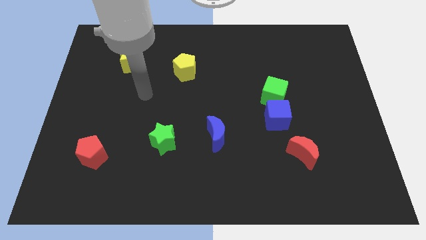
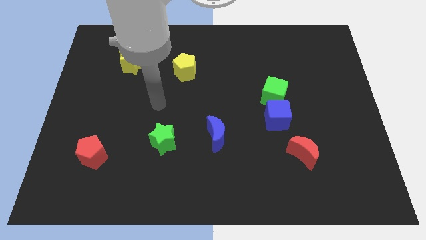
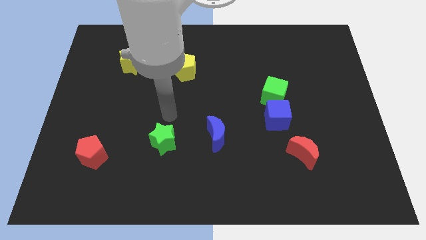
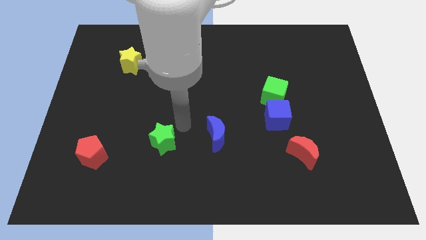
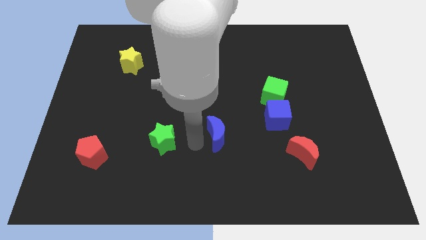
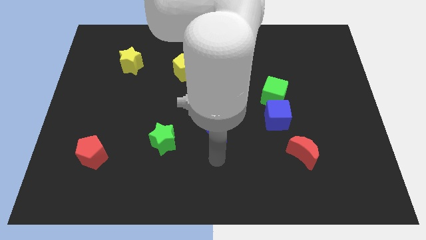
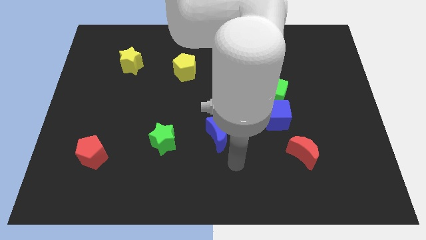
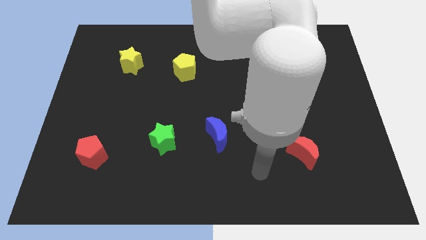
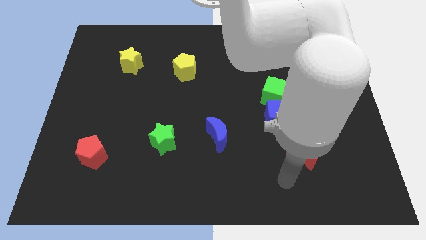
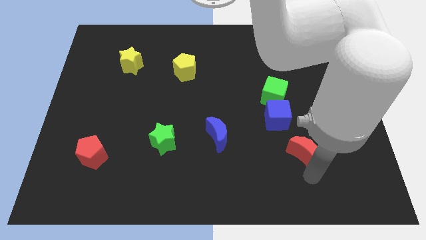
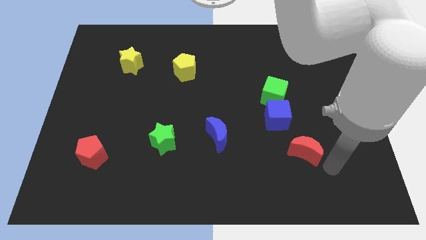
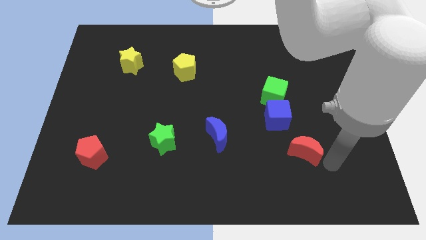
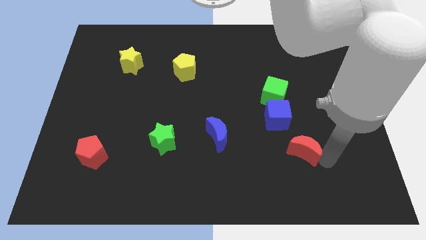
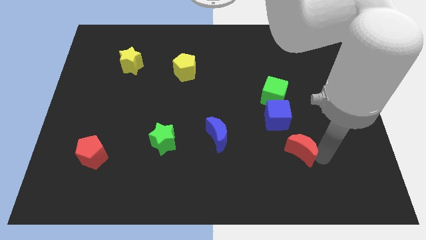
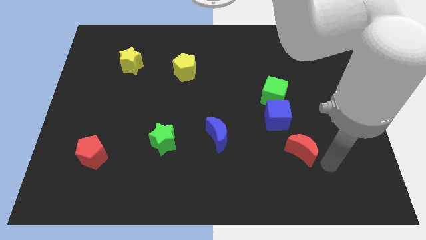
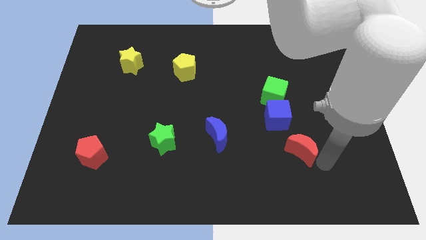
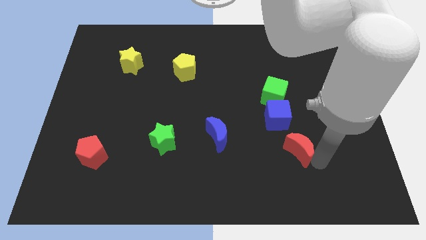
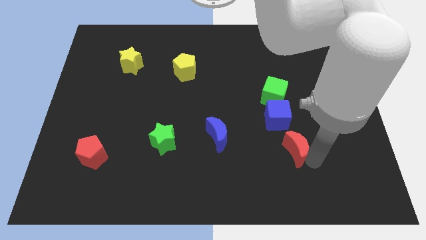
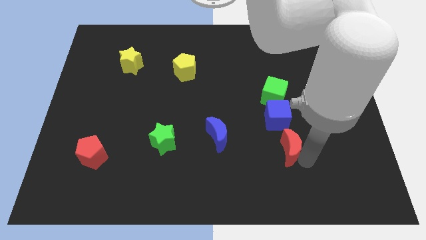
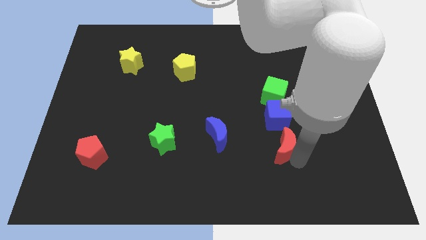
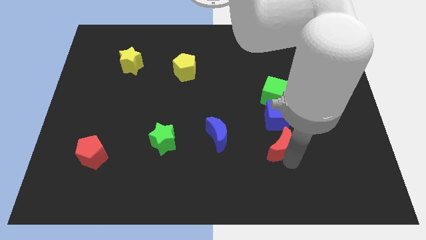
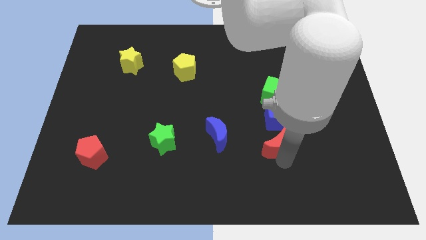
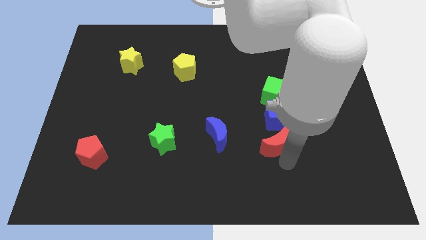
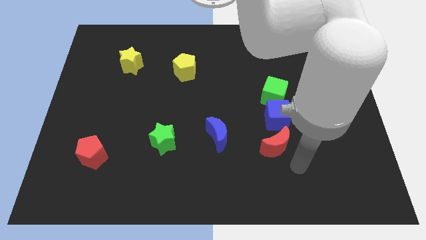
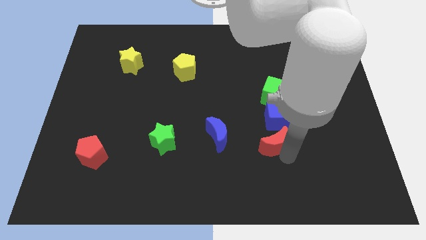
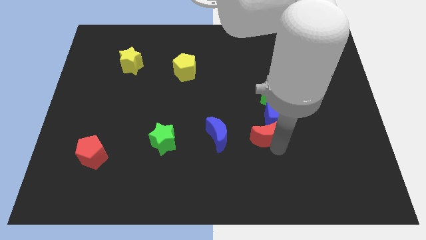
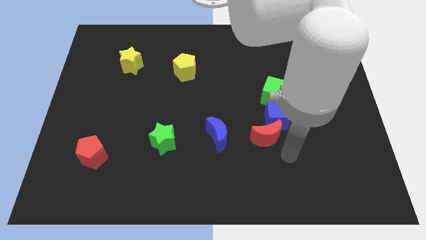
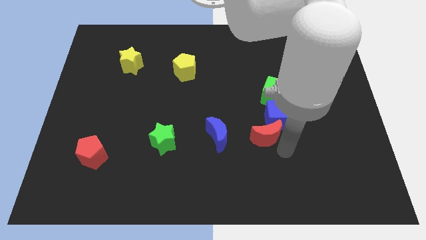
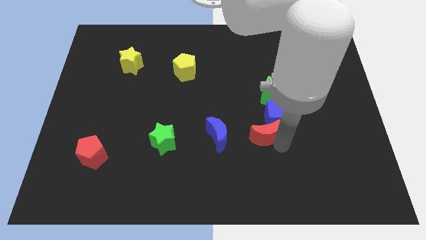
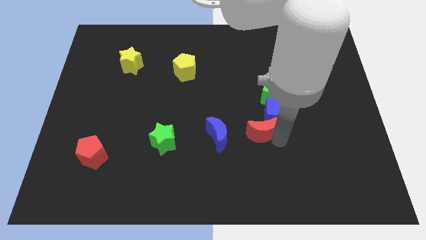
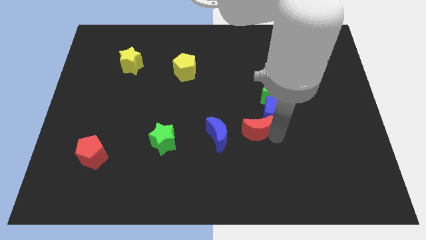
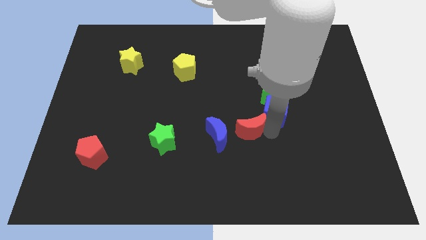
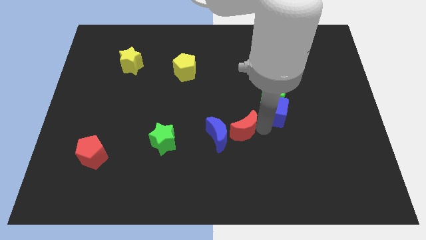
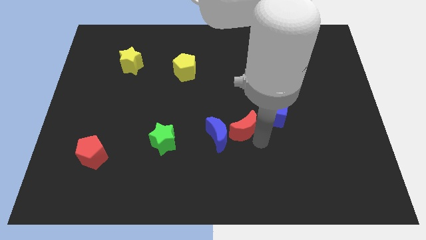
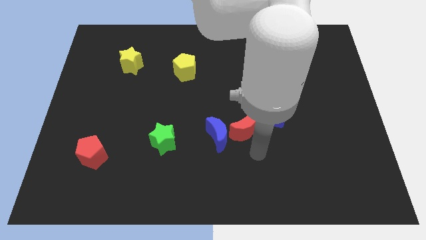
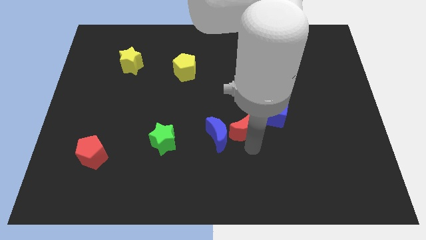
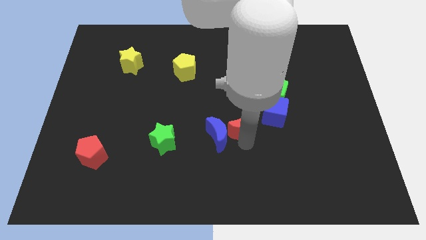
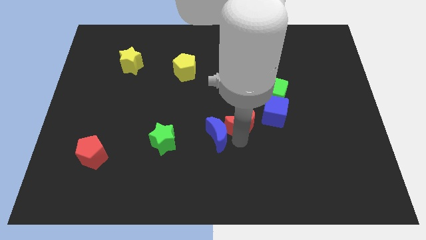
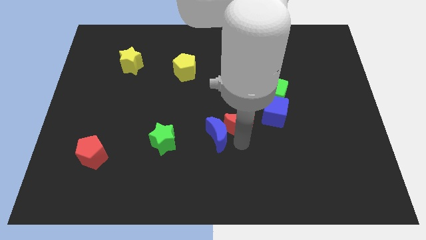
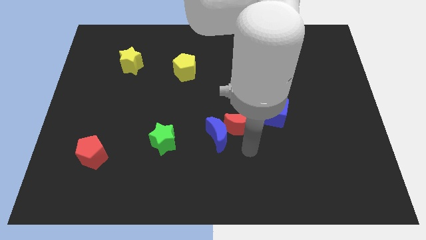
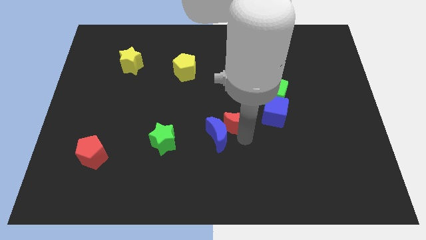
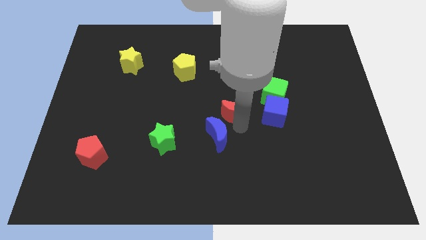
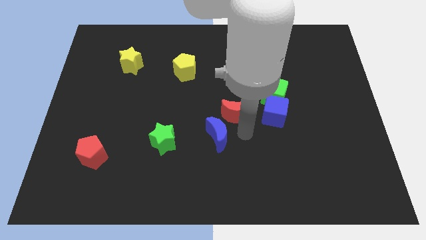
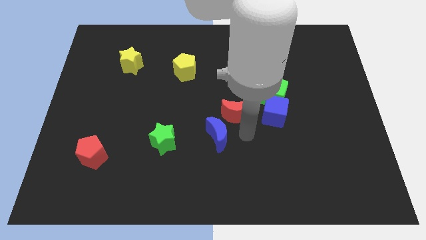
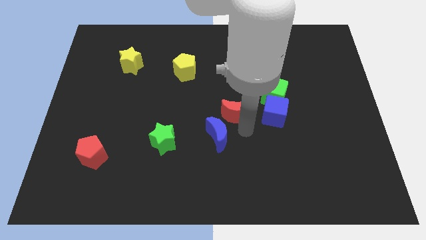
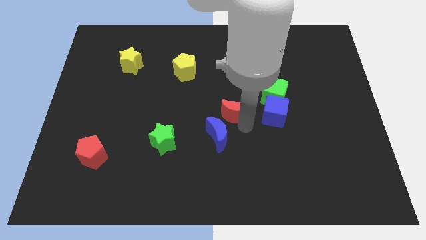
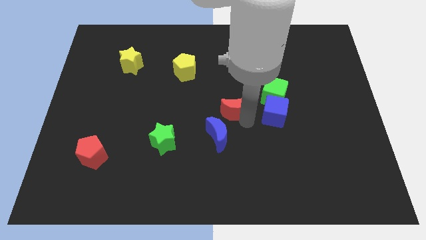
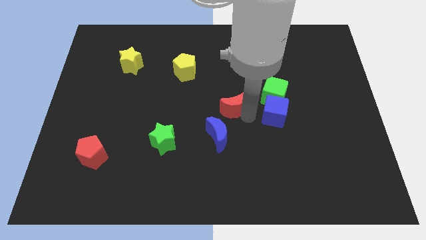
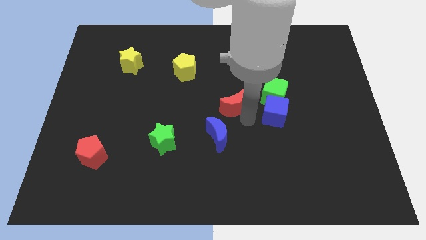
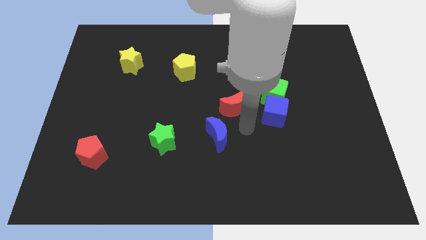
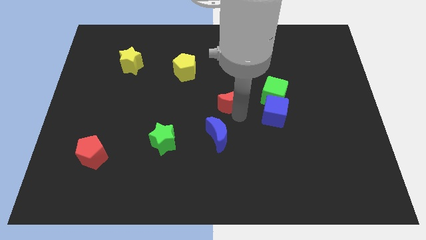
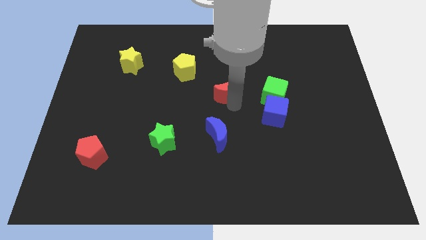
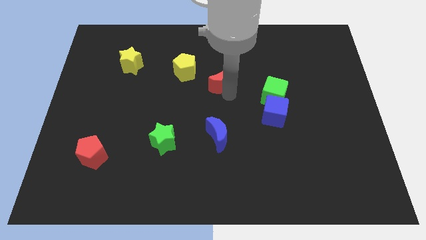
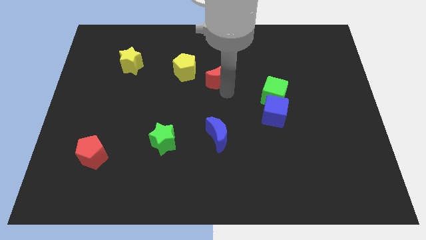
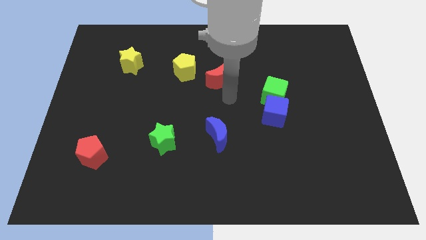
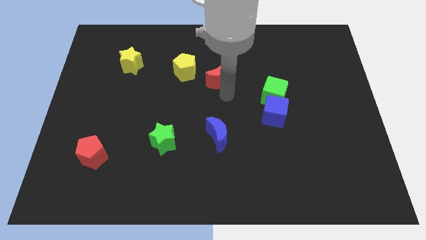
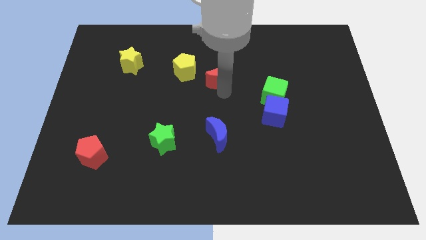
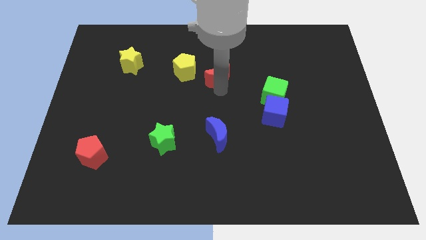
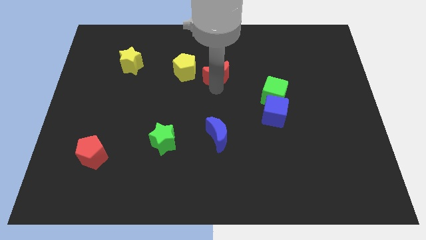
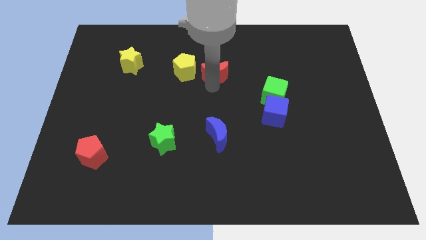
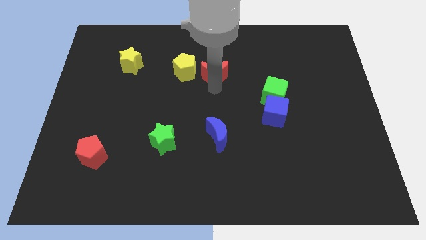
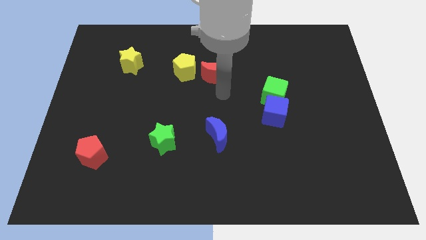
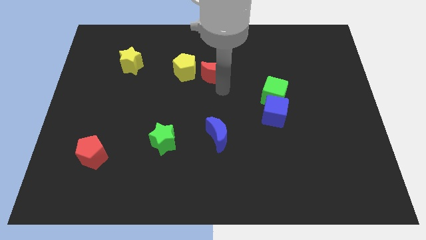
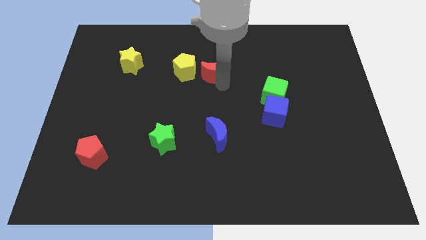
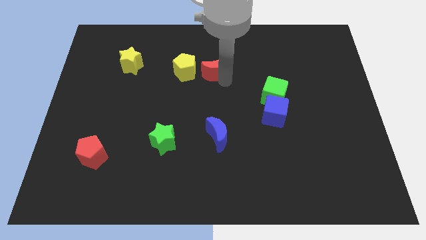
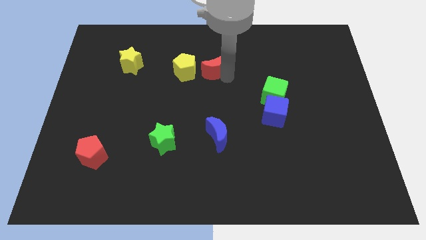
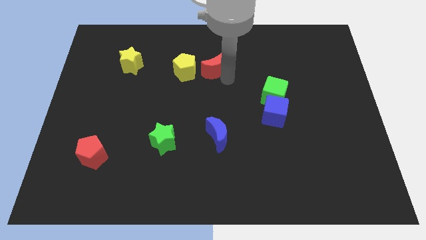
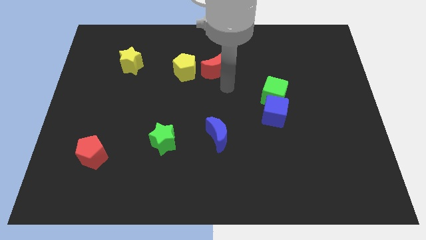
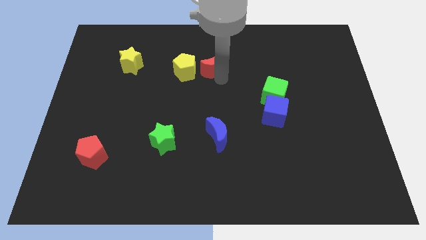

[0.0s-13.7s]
put the red moon to the top right side of the yellow pentagon

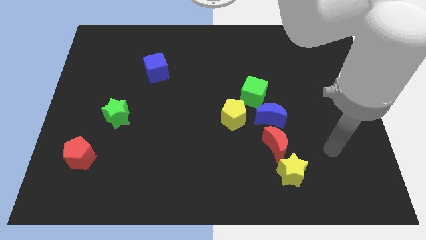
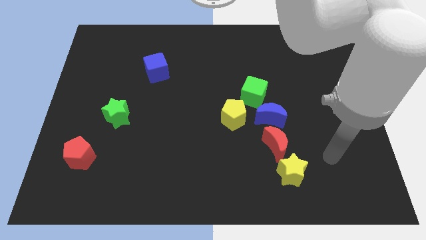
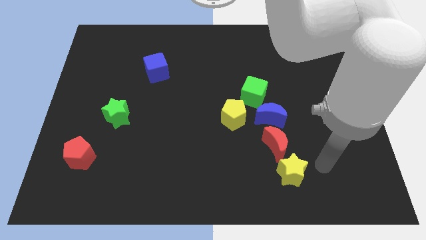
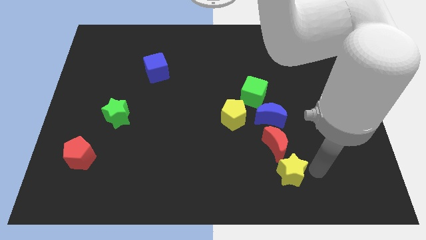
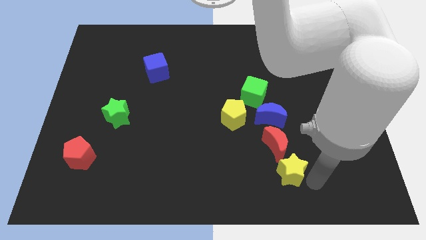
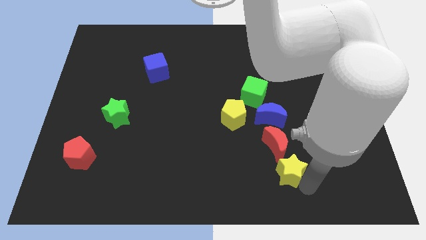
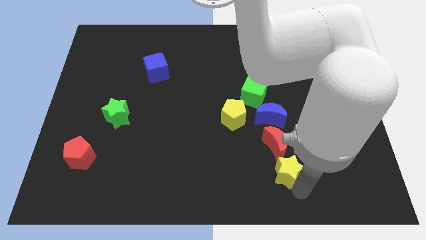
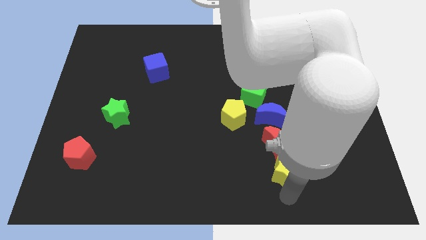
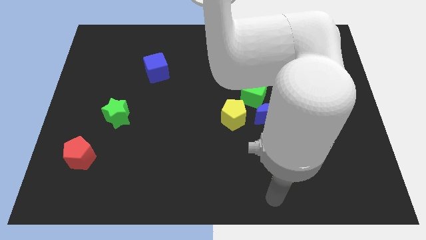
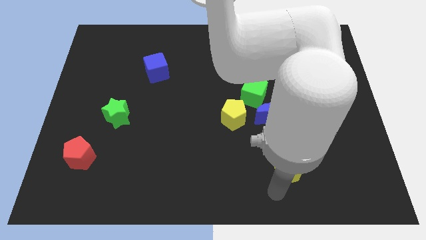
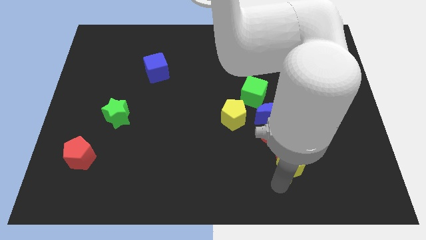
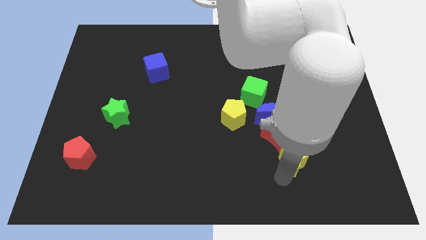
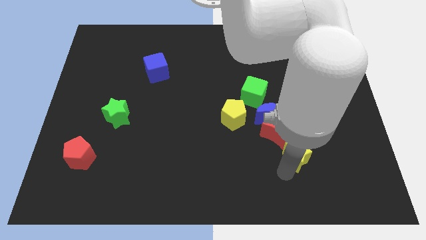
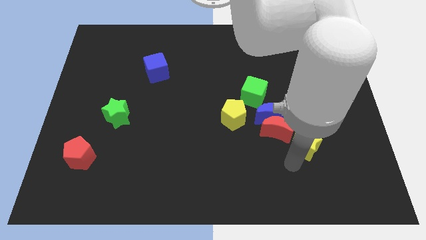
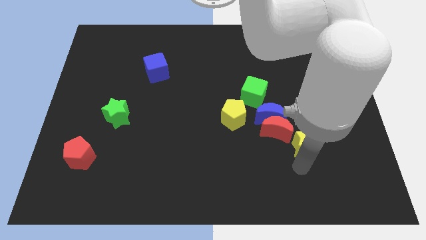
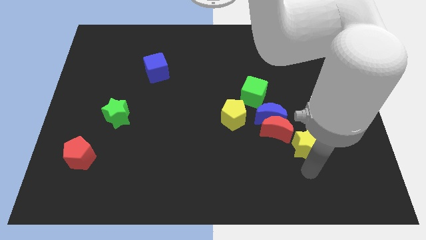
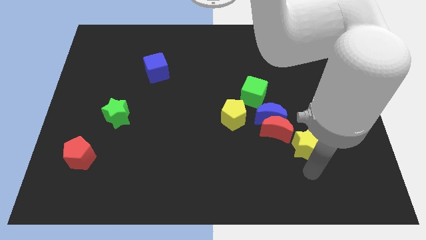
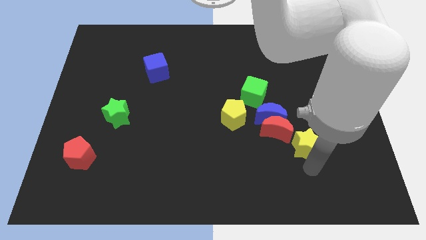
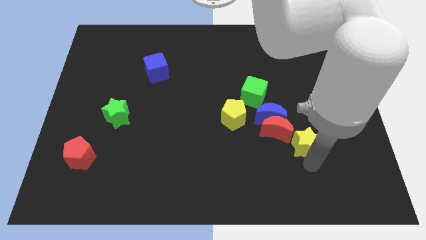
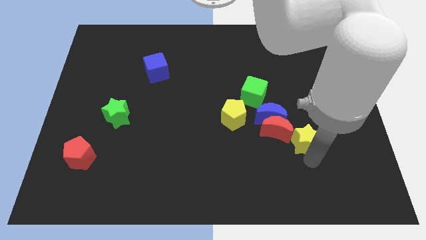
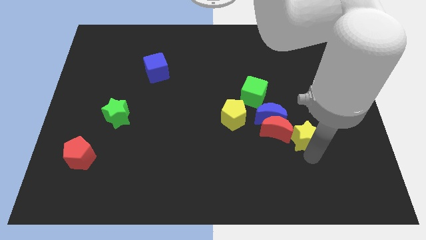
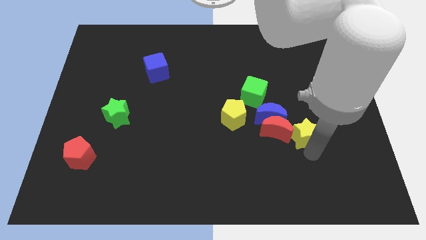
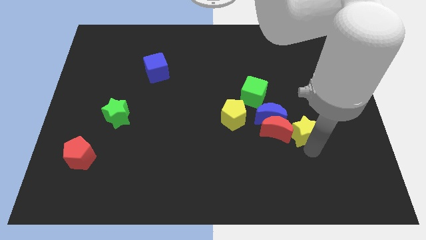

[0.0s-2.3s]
put the yellow star diagonally up and to the right of the red moon
